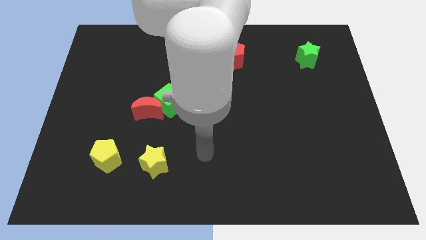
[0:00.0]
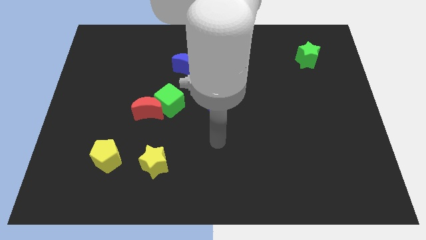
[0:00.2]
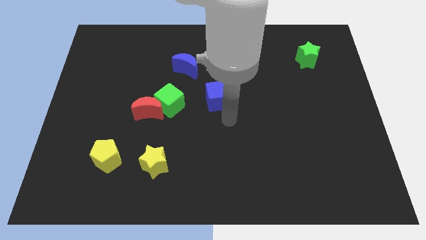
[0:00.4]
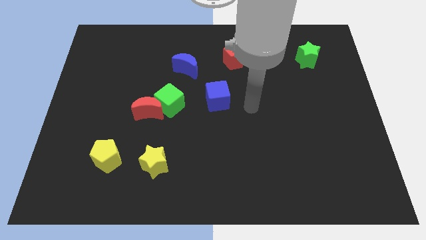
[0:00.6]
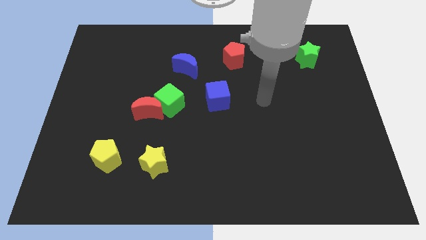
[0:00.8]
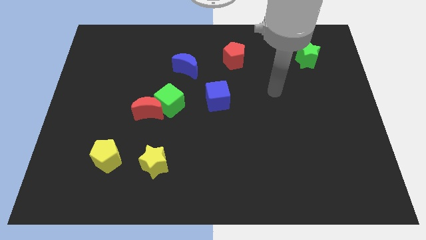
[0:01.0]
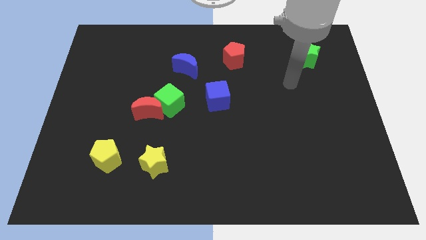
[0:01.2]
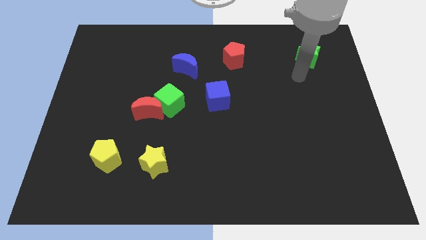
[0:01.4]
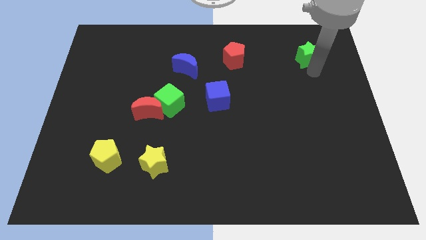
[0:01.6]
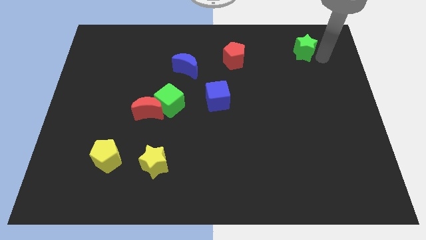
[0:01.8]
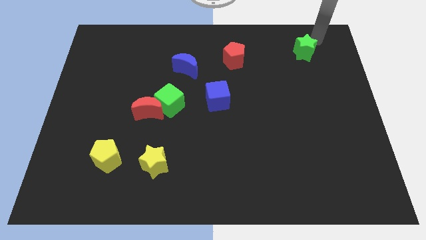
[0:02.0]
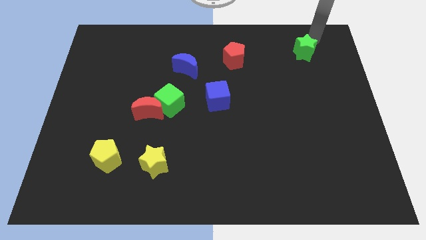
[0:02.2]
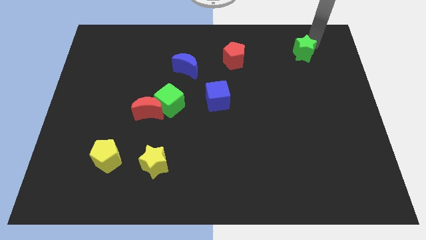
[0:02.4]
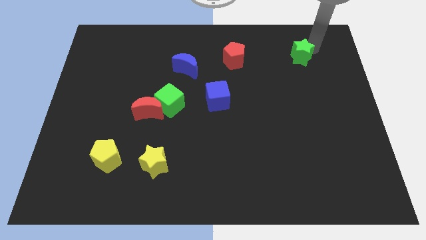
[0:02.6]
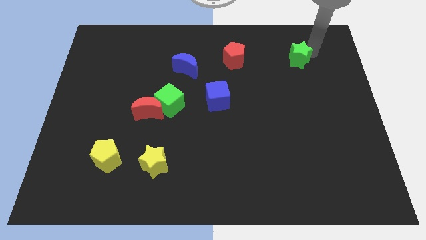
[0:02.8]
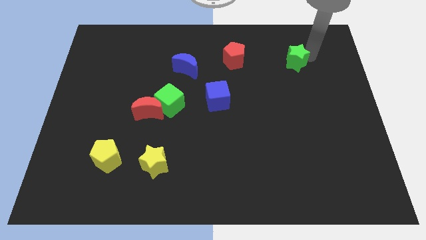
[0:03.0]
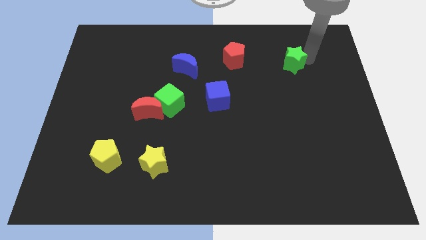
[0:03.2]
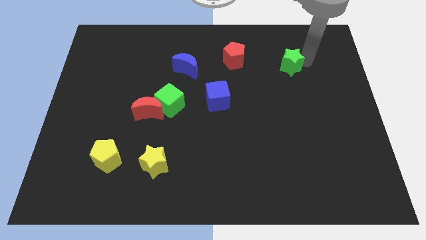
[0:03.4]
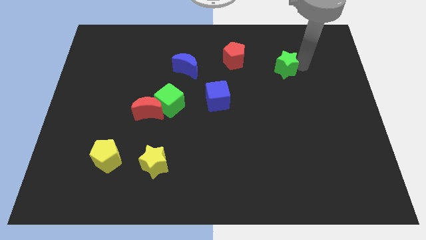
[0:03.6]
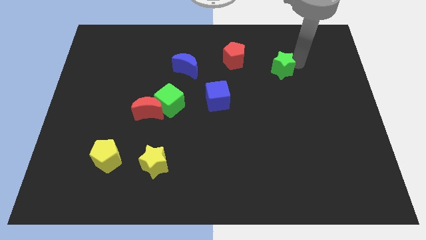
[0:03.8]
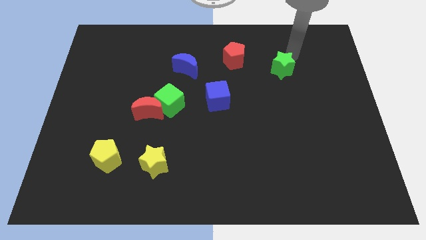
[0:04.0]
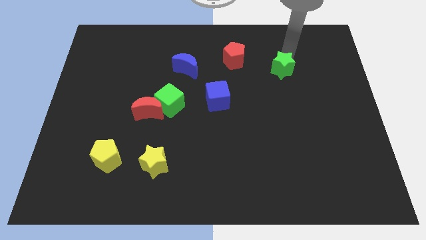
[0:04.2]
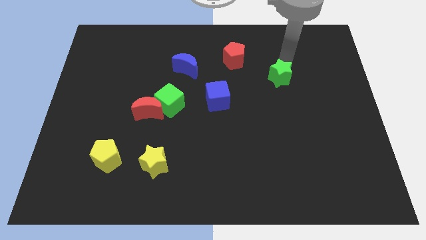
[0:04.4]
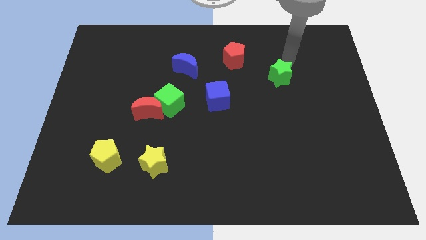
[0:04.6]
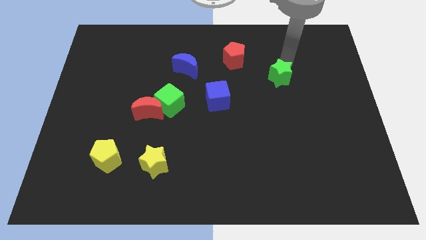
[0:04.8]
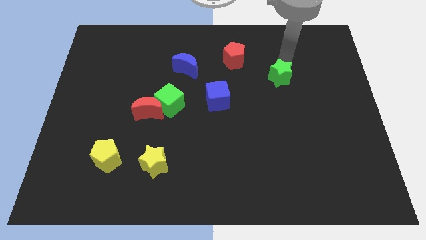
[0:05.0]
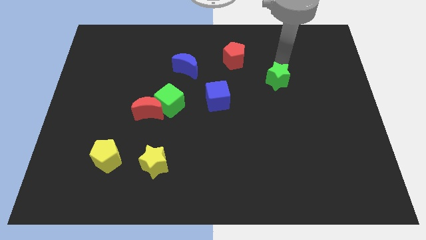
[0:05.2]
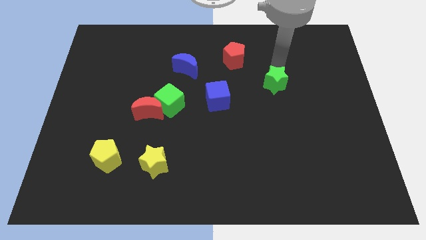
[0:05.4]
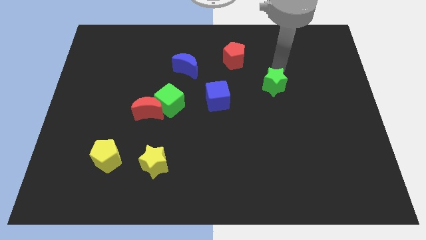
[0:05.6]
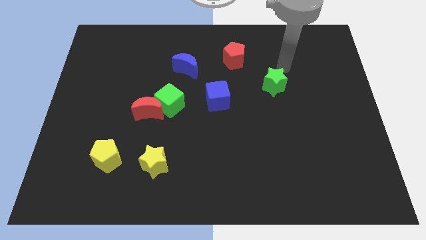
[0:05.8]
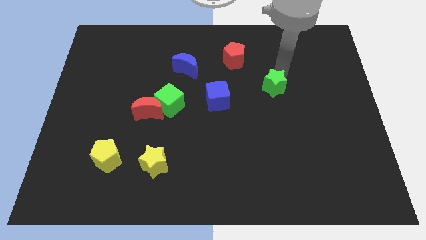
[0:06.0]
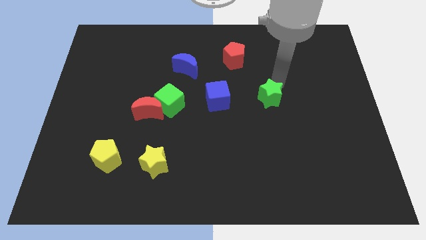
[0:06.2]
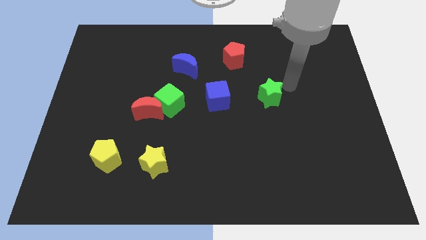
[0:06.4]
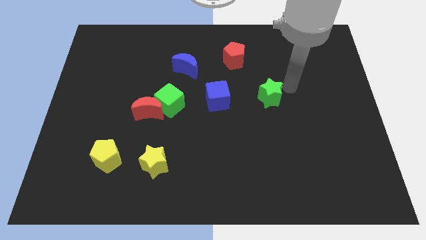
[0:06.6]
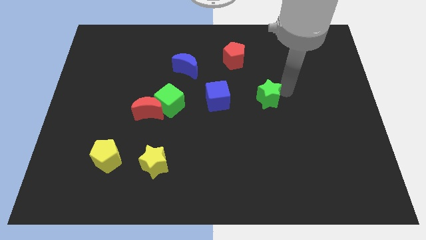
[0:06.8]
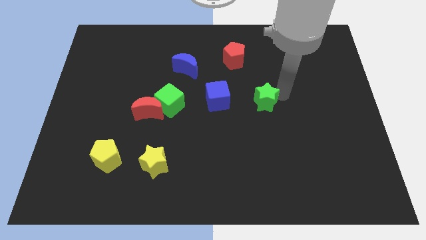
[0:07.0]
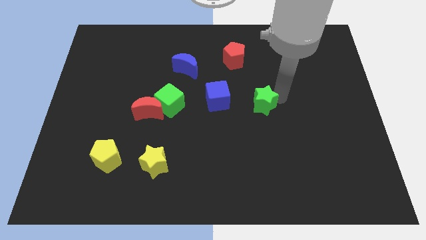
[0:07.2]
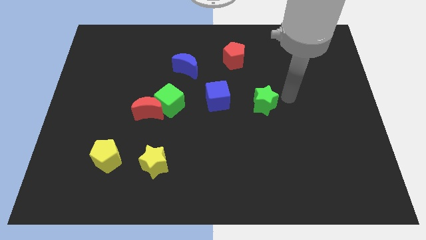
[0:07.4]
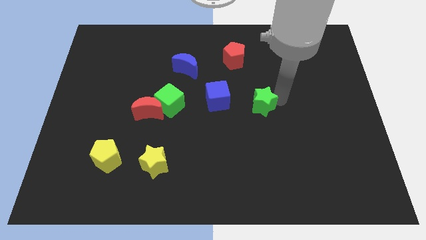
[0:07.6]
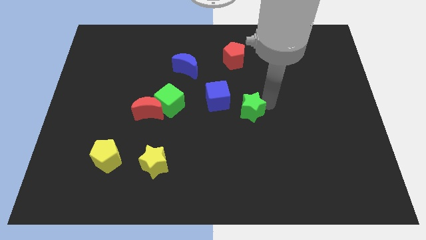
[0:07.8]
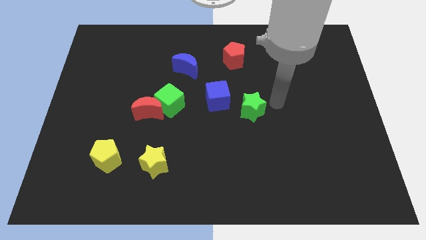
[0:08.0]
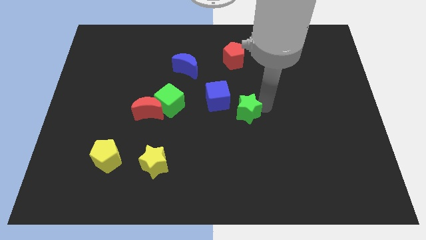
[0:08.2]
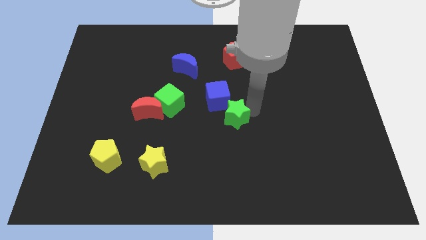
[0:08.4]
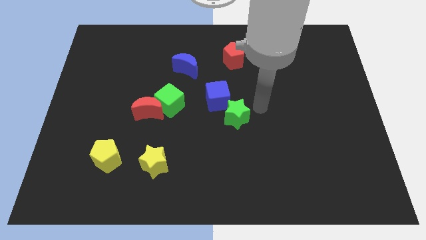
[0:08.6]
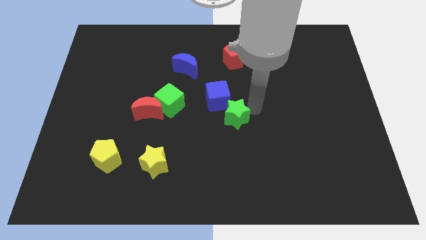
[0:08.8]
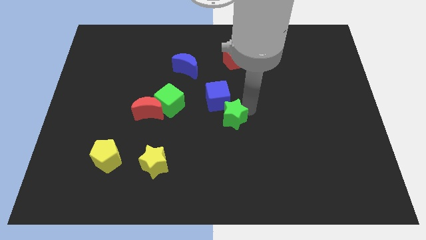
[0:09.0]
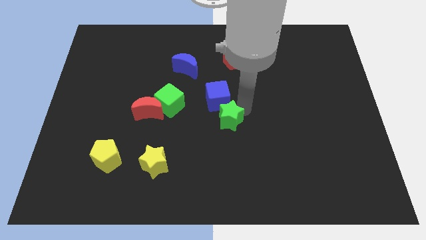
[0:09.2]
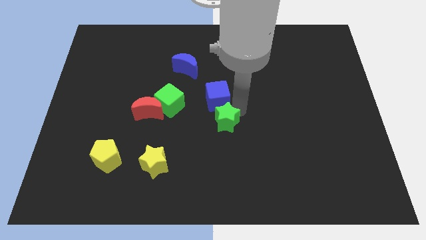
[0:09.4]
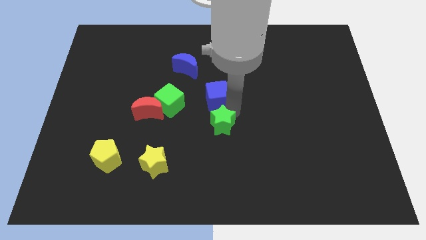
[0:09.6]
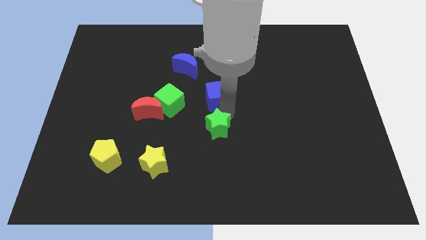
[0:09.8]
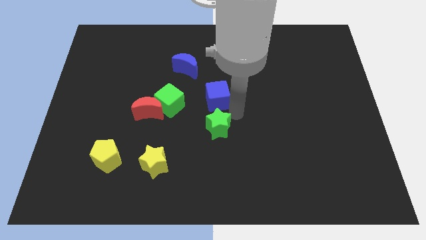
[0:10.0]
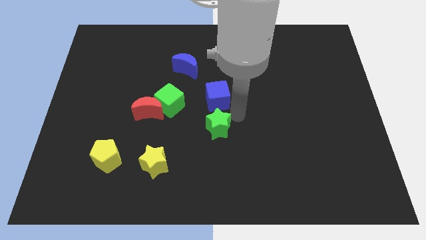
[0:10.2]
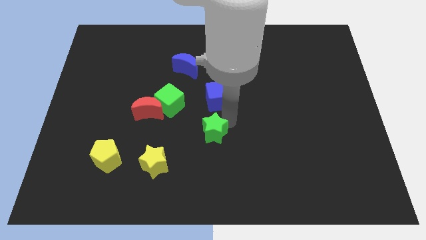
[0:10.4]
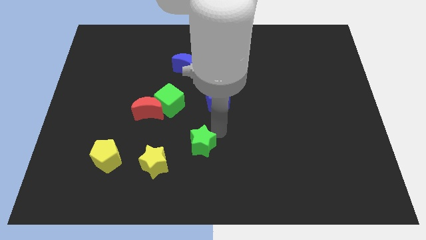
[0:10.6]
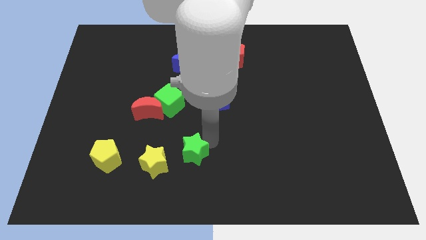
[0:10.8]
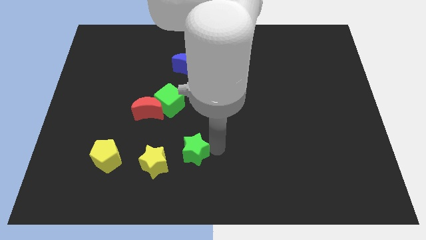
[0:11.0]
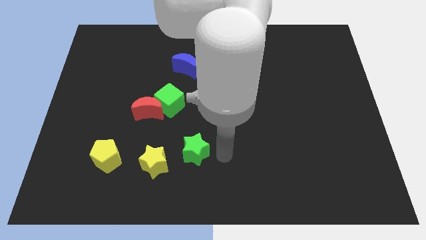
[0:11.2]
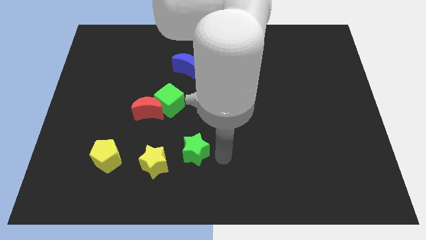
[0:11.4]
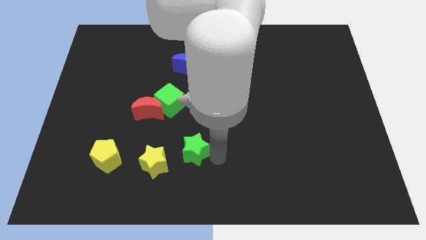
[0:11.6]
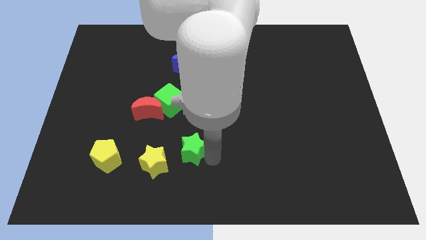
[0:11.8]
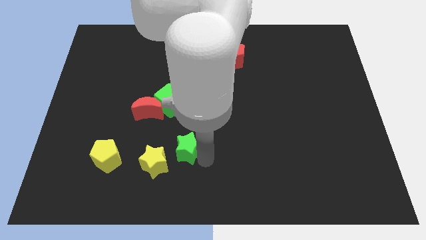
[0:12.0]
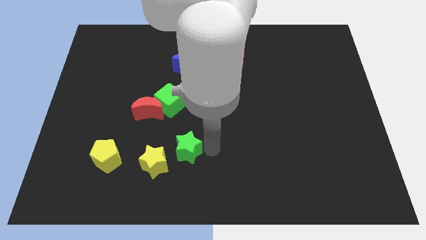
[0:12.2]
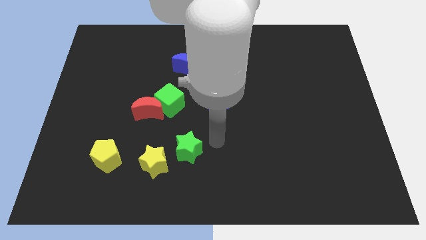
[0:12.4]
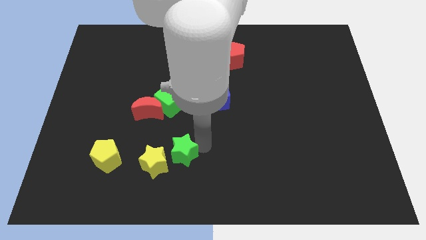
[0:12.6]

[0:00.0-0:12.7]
move the green star to the yellow star

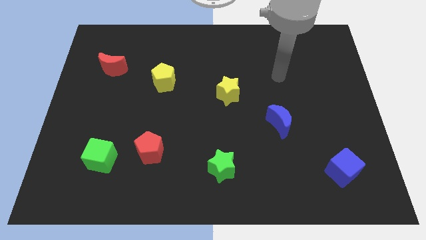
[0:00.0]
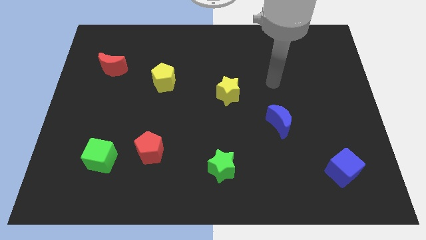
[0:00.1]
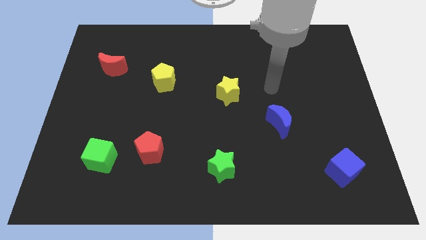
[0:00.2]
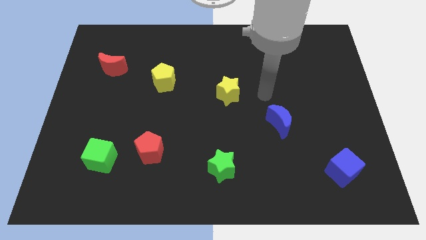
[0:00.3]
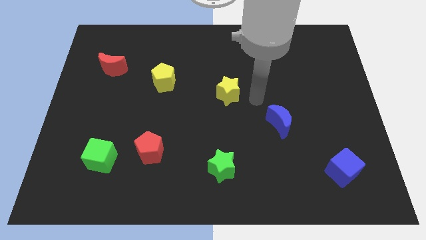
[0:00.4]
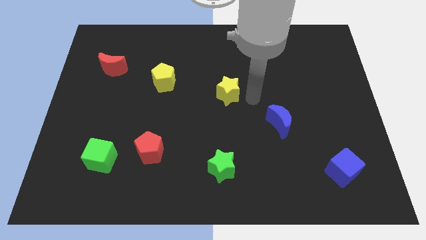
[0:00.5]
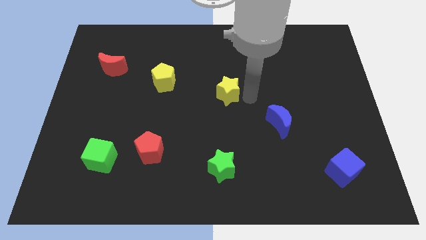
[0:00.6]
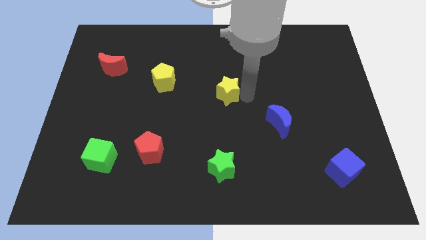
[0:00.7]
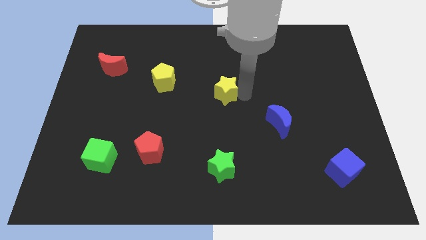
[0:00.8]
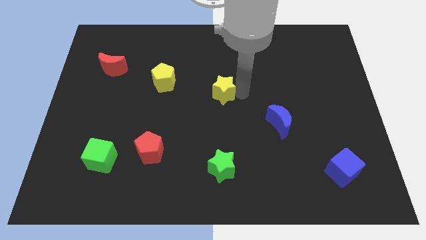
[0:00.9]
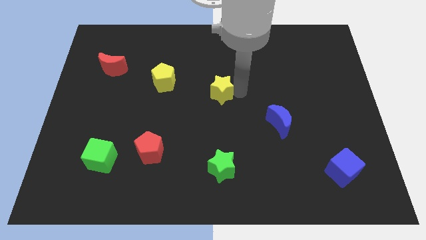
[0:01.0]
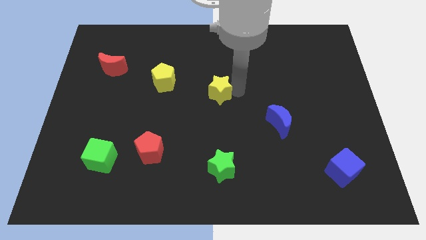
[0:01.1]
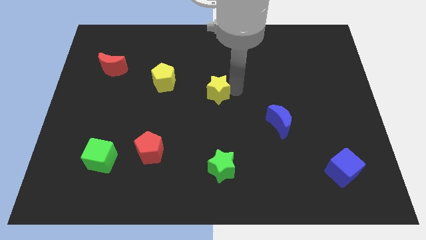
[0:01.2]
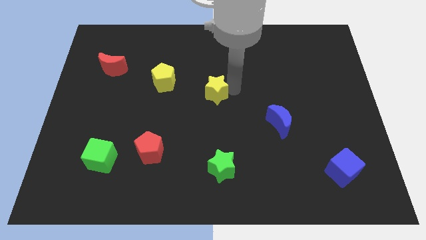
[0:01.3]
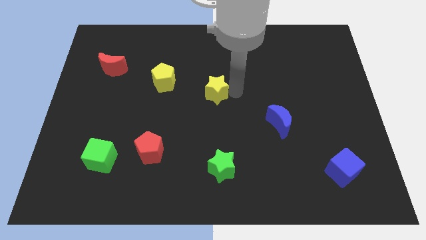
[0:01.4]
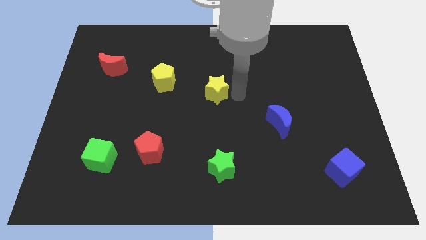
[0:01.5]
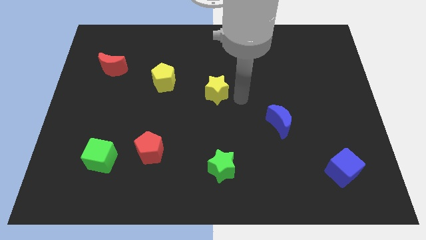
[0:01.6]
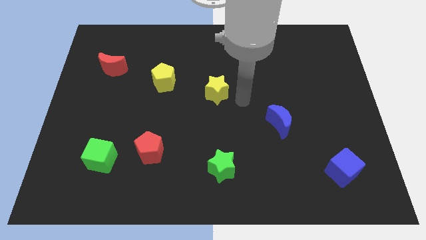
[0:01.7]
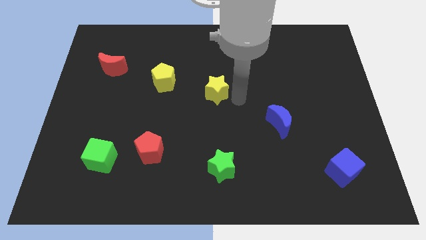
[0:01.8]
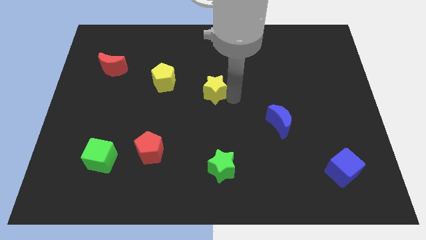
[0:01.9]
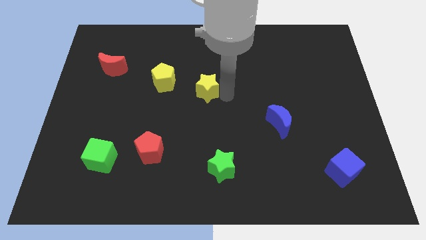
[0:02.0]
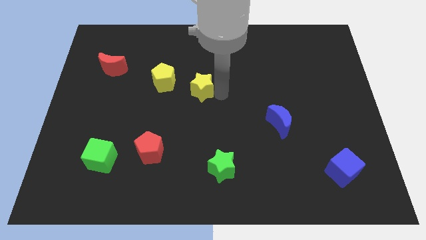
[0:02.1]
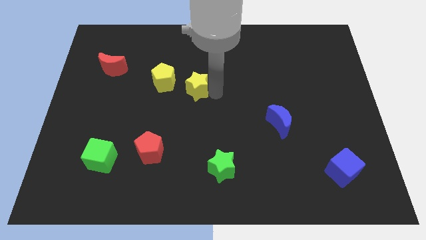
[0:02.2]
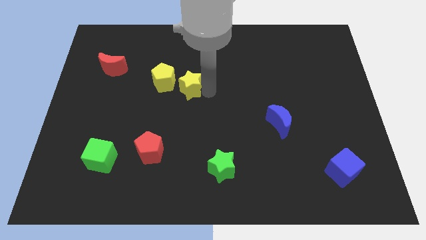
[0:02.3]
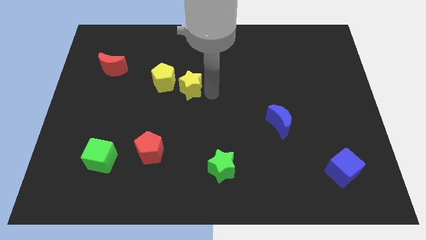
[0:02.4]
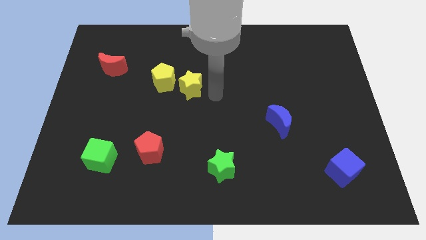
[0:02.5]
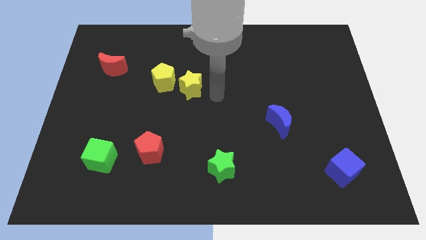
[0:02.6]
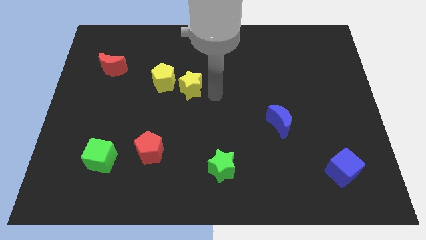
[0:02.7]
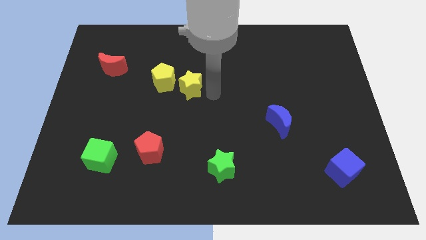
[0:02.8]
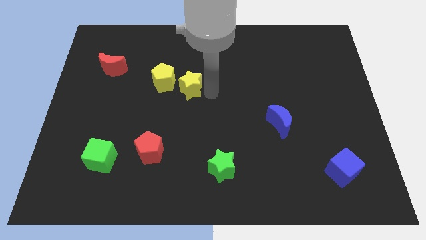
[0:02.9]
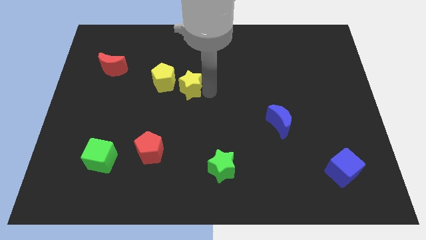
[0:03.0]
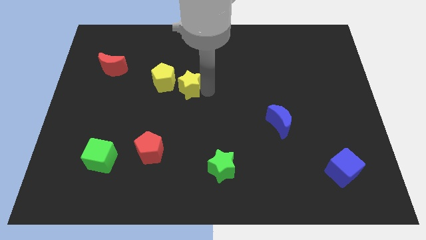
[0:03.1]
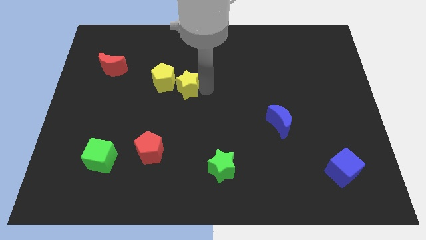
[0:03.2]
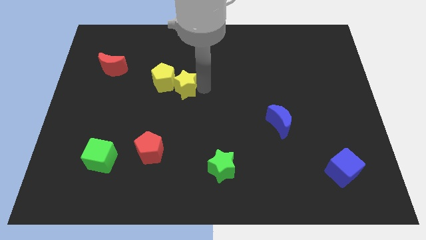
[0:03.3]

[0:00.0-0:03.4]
push the yellow star to the yellow pentagon
